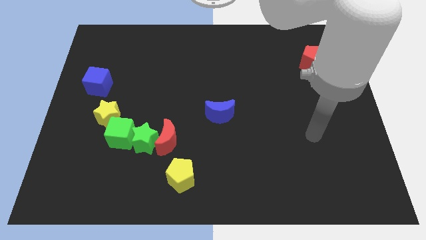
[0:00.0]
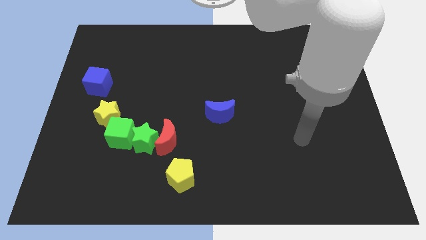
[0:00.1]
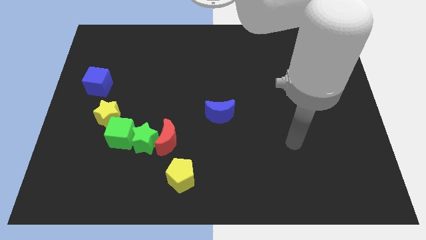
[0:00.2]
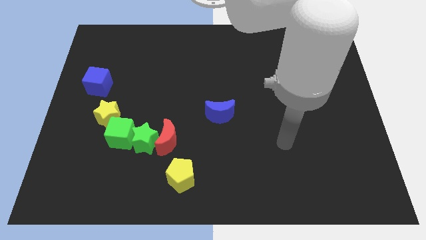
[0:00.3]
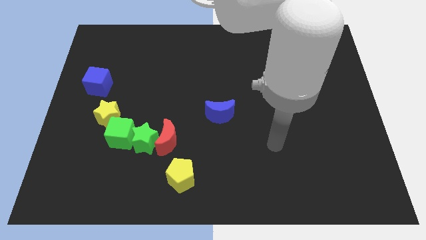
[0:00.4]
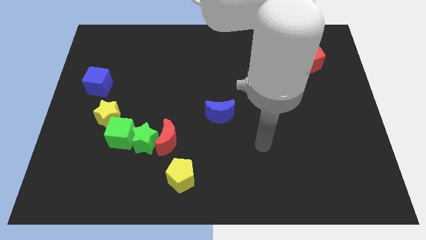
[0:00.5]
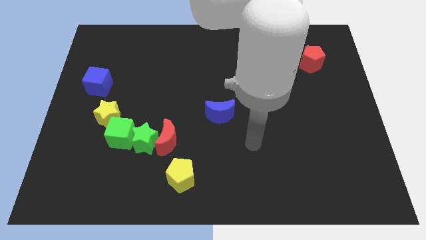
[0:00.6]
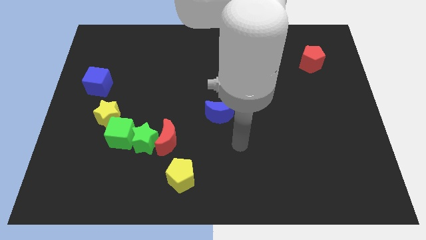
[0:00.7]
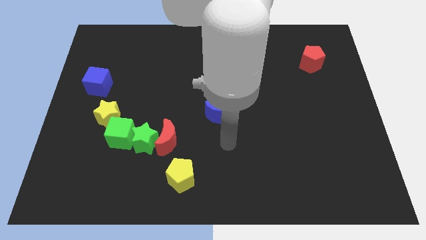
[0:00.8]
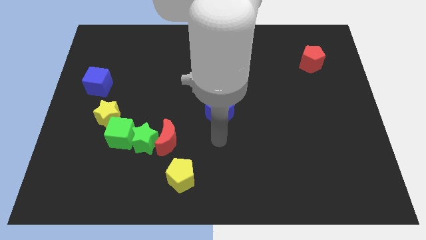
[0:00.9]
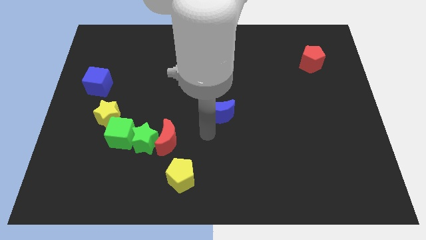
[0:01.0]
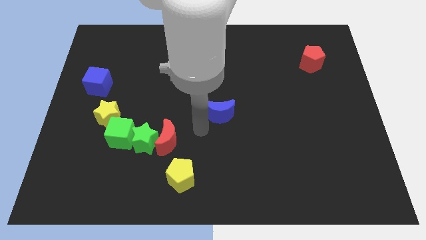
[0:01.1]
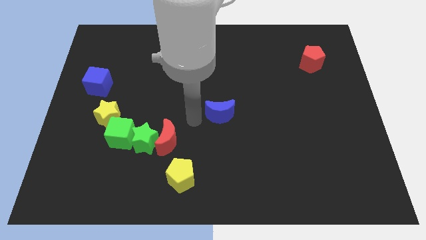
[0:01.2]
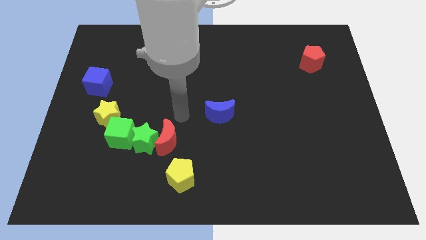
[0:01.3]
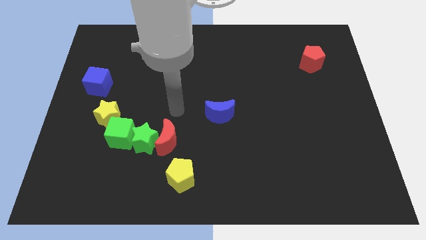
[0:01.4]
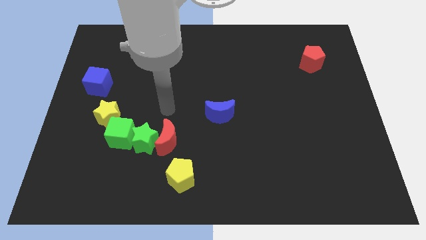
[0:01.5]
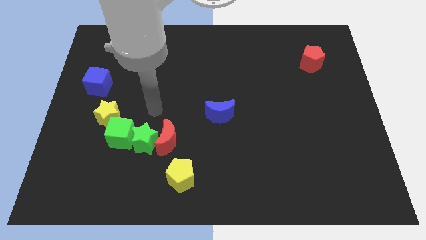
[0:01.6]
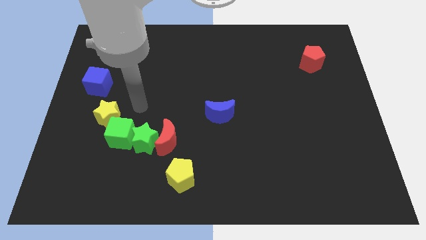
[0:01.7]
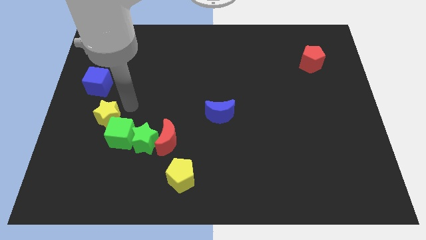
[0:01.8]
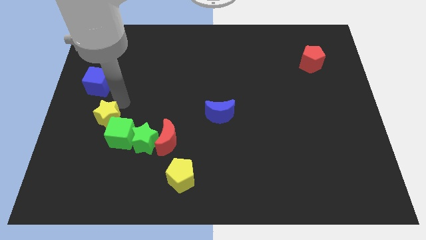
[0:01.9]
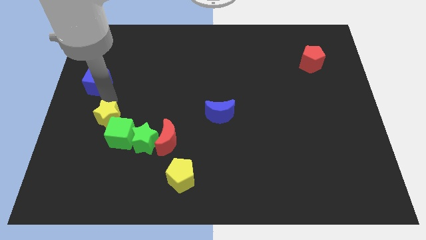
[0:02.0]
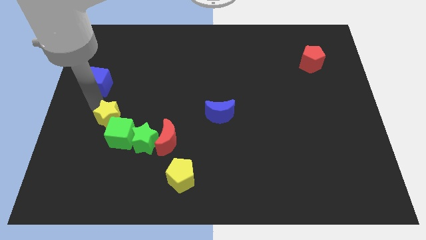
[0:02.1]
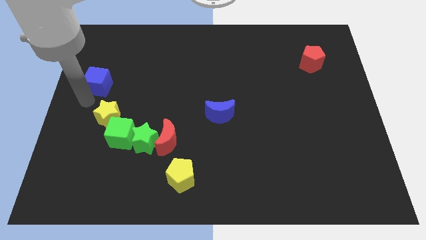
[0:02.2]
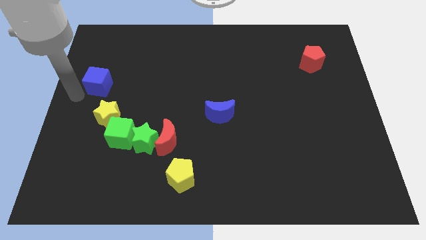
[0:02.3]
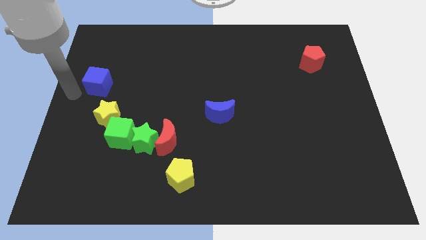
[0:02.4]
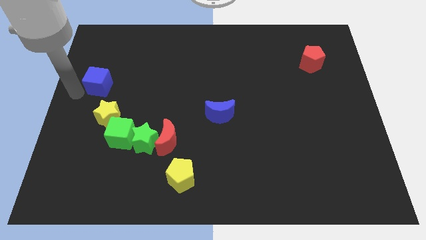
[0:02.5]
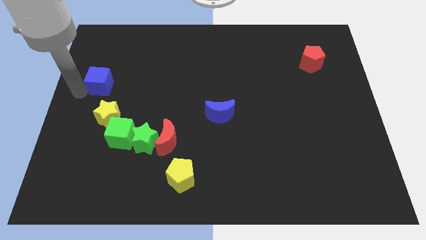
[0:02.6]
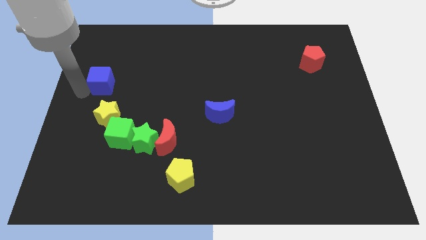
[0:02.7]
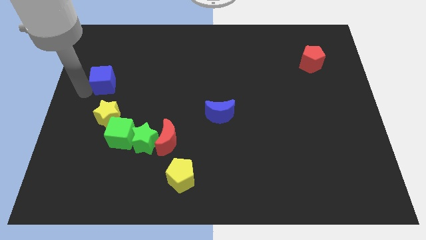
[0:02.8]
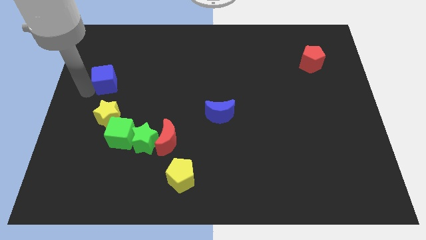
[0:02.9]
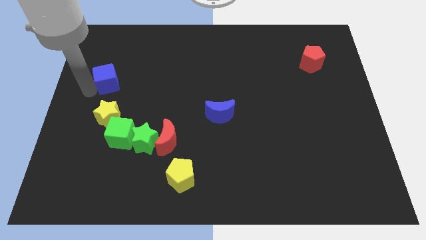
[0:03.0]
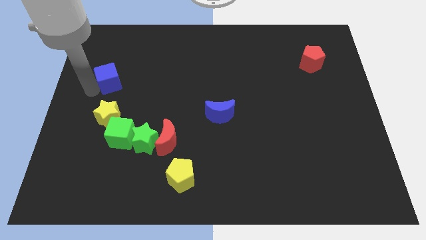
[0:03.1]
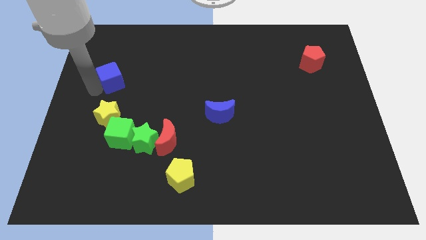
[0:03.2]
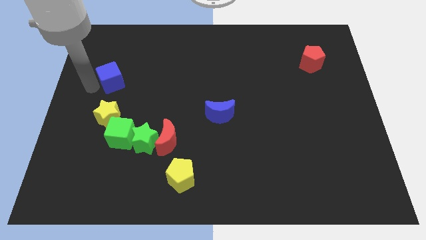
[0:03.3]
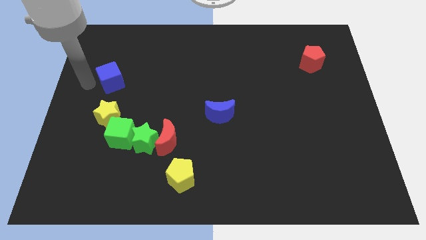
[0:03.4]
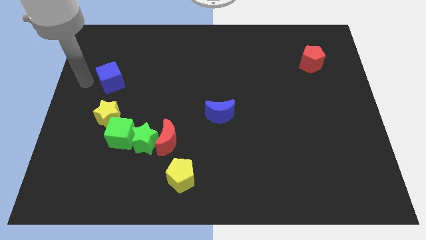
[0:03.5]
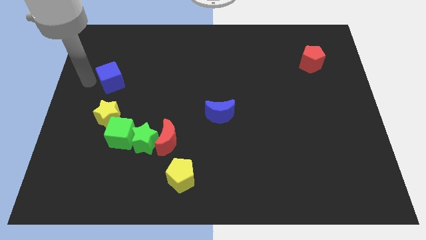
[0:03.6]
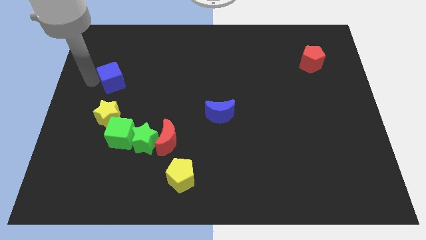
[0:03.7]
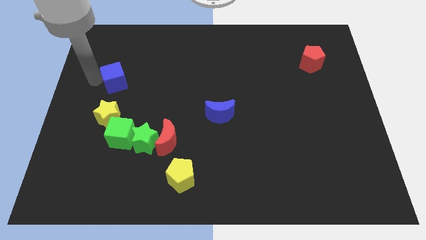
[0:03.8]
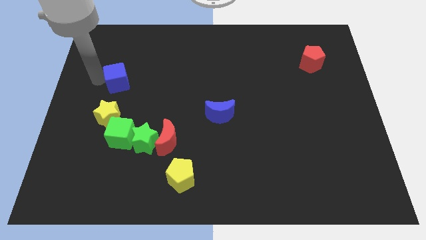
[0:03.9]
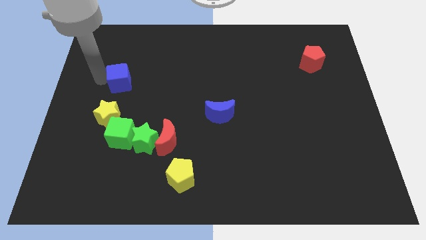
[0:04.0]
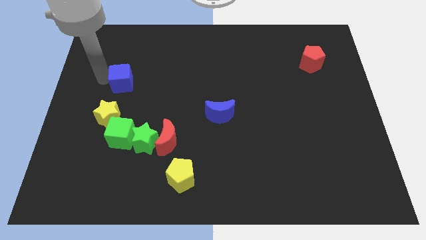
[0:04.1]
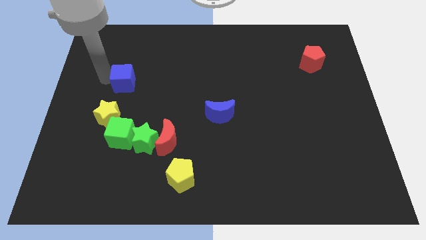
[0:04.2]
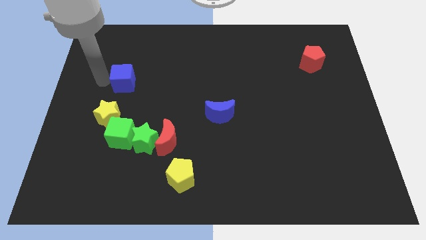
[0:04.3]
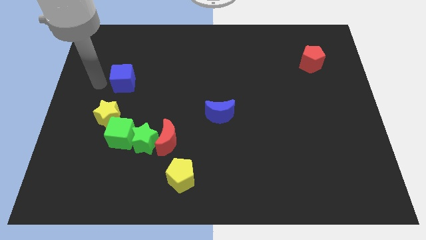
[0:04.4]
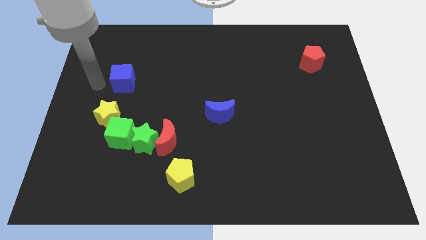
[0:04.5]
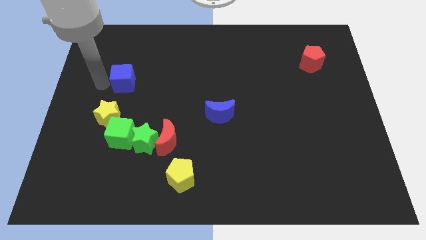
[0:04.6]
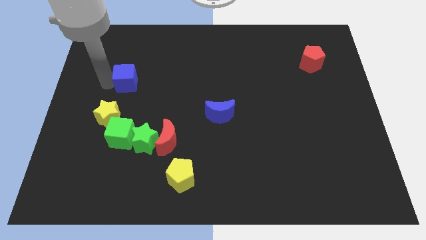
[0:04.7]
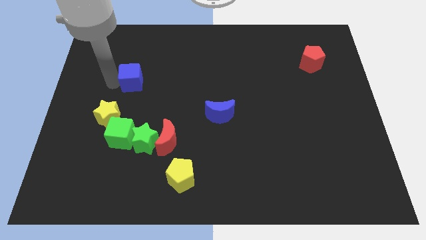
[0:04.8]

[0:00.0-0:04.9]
slide the blue cube to the right a bit

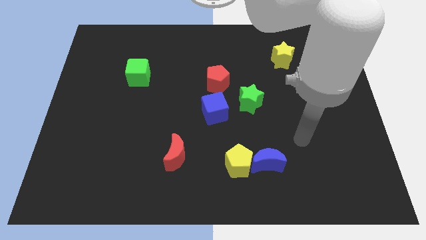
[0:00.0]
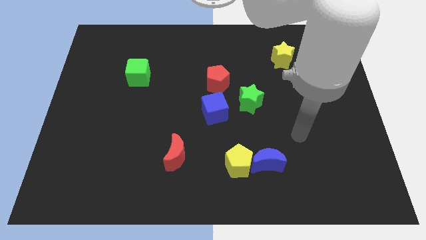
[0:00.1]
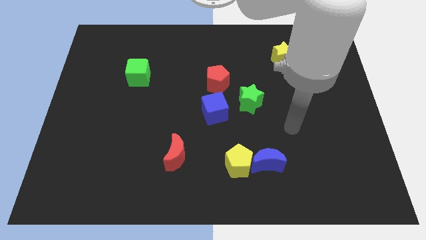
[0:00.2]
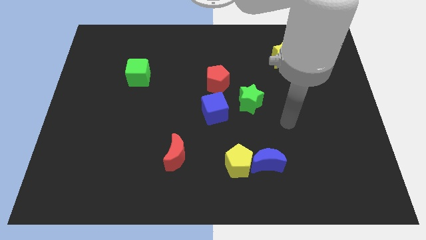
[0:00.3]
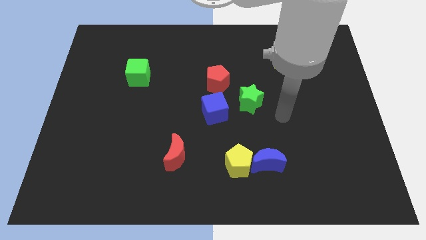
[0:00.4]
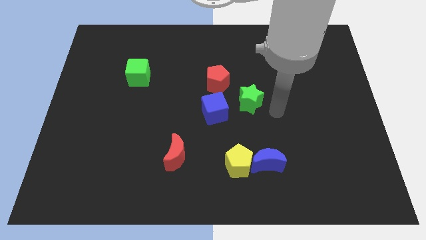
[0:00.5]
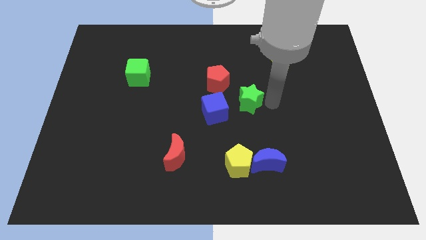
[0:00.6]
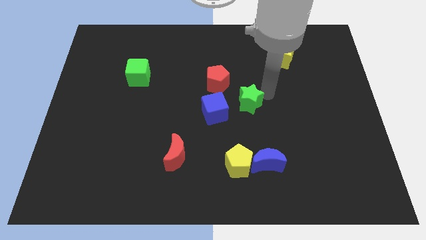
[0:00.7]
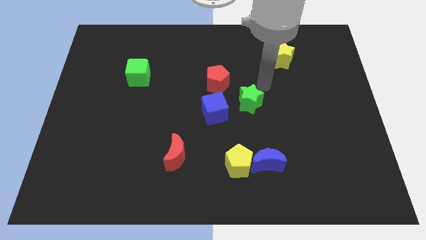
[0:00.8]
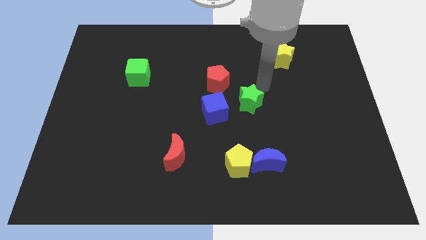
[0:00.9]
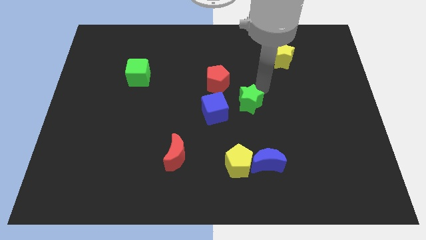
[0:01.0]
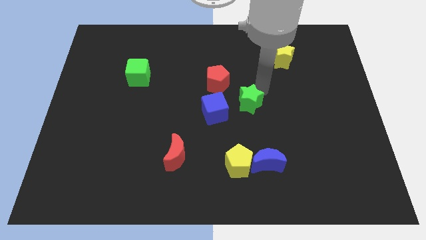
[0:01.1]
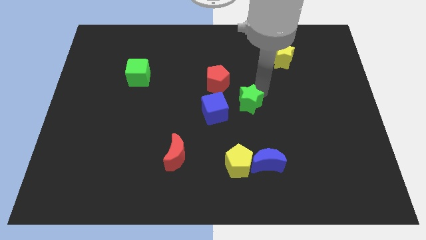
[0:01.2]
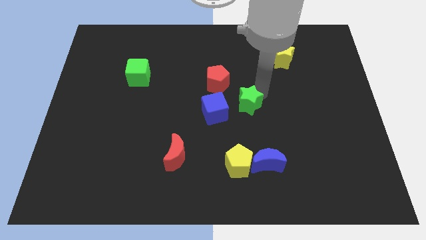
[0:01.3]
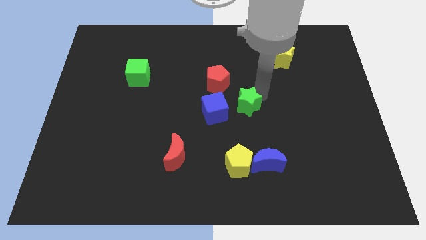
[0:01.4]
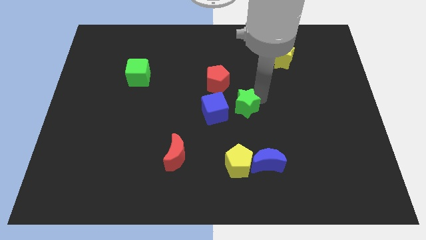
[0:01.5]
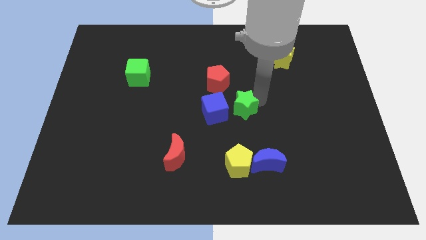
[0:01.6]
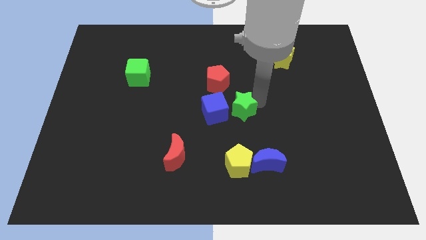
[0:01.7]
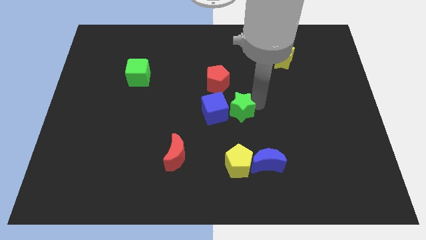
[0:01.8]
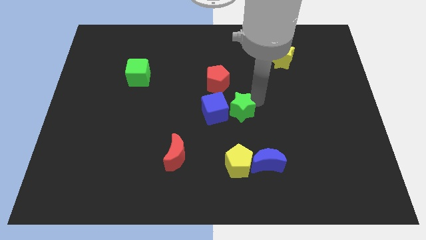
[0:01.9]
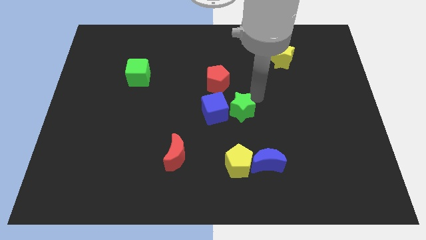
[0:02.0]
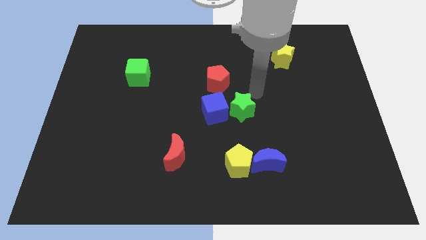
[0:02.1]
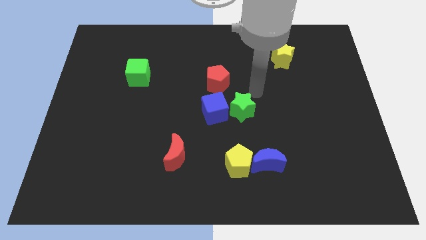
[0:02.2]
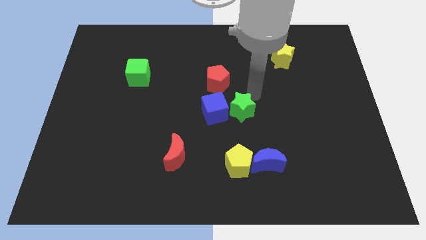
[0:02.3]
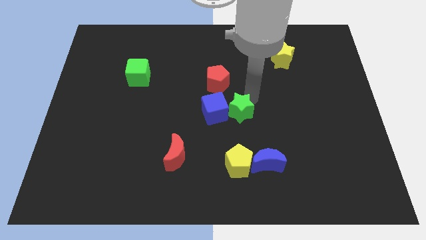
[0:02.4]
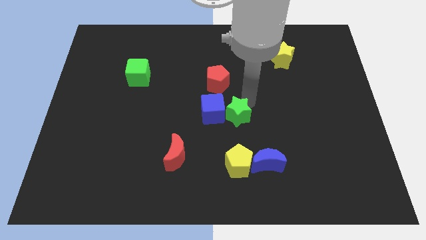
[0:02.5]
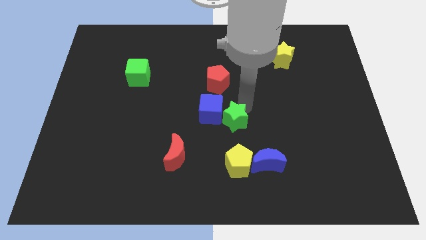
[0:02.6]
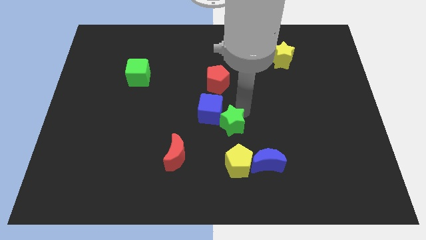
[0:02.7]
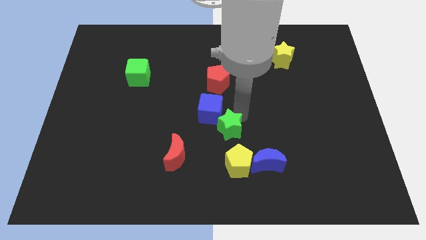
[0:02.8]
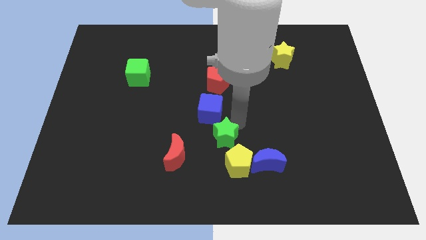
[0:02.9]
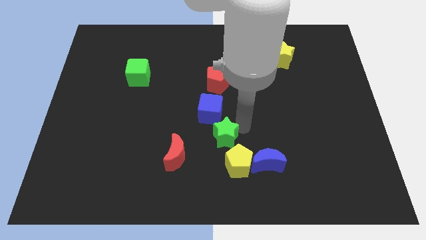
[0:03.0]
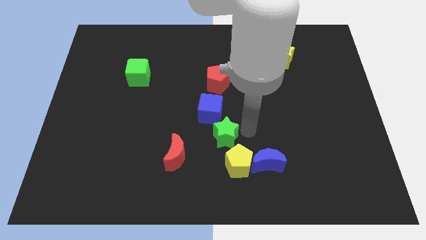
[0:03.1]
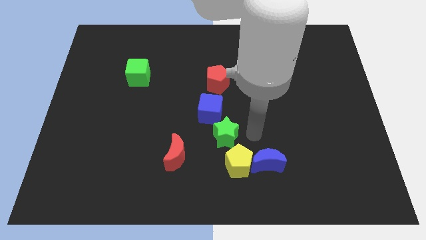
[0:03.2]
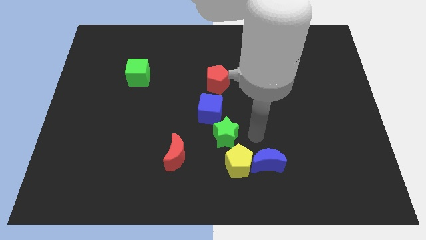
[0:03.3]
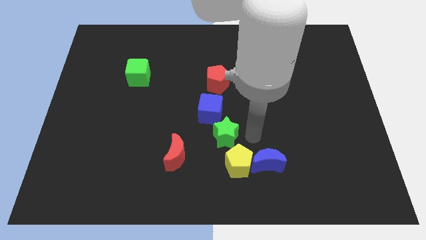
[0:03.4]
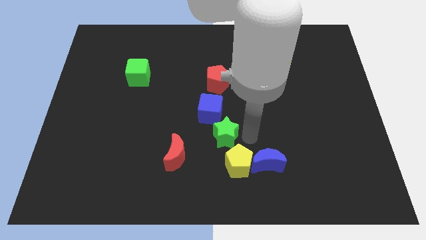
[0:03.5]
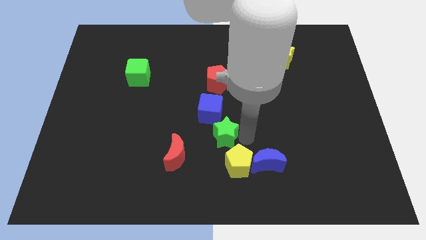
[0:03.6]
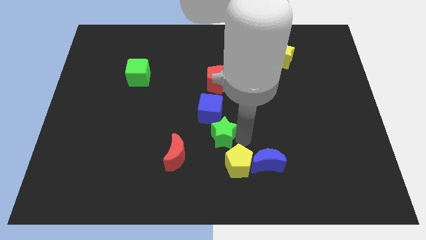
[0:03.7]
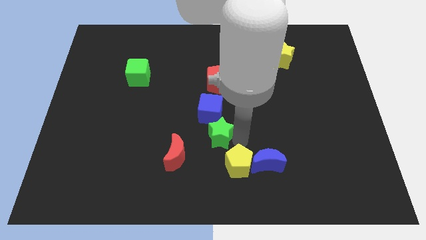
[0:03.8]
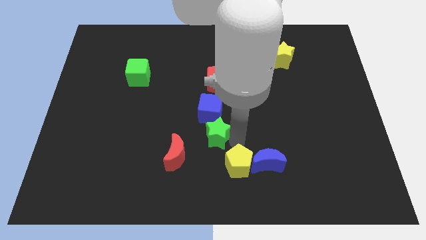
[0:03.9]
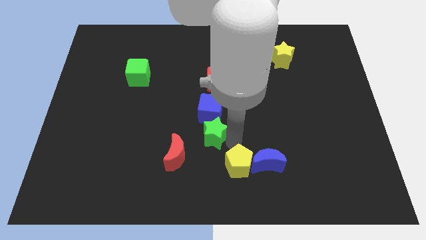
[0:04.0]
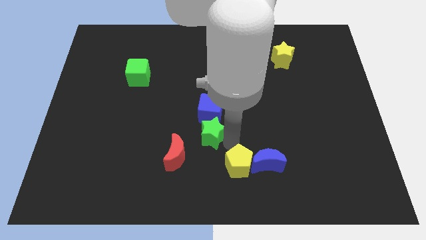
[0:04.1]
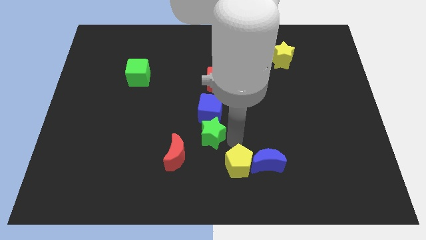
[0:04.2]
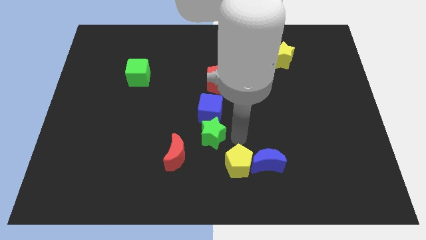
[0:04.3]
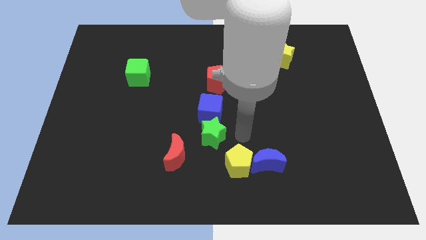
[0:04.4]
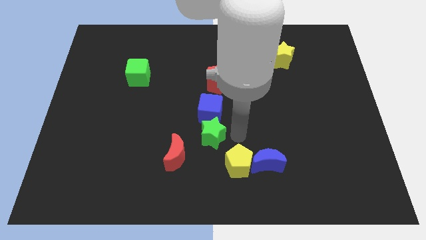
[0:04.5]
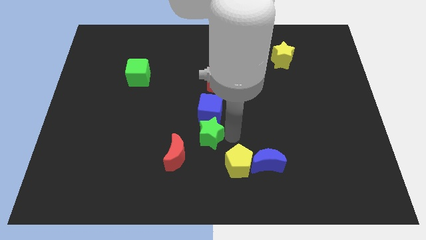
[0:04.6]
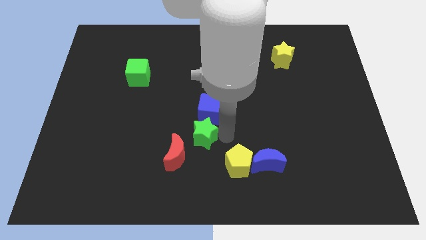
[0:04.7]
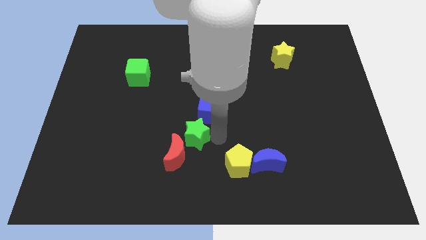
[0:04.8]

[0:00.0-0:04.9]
slightly push the green star to the left
